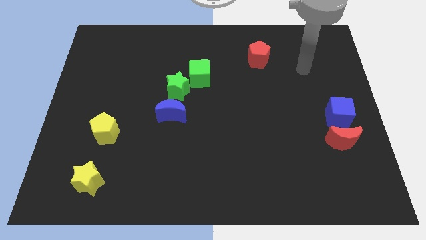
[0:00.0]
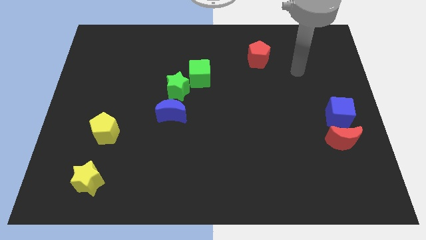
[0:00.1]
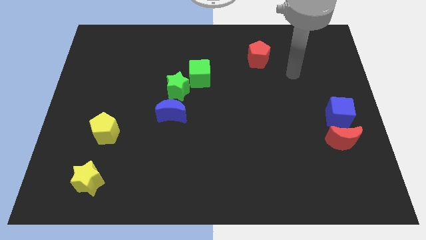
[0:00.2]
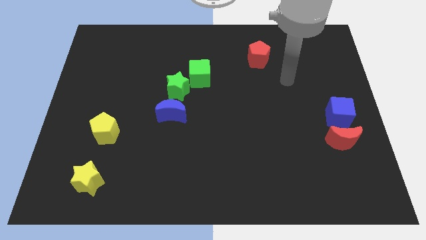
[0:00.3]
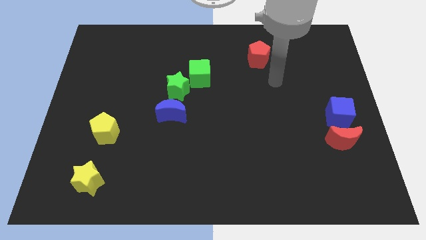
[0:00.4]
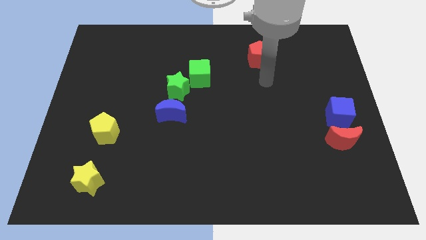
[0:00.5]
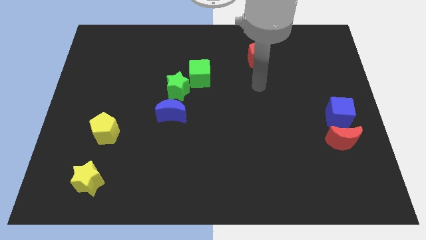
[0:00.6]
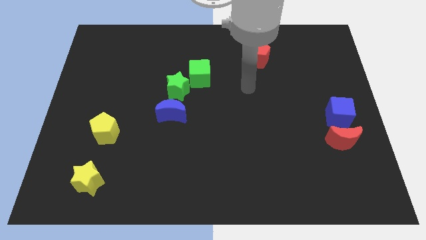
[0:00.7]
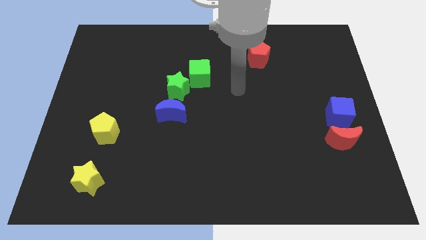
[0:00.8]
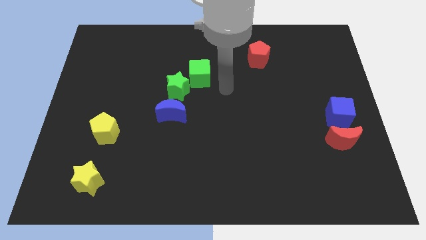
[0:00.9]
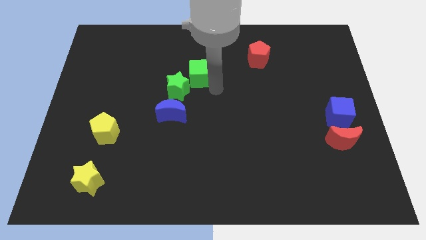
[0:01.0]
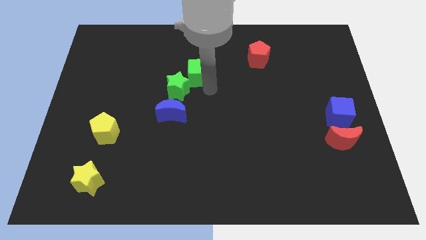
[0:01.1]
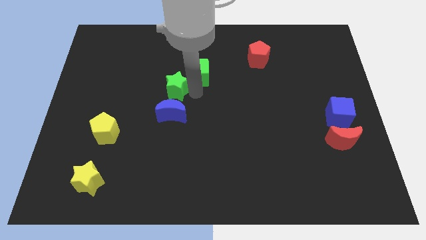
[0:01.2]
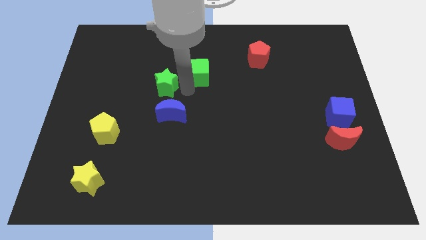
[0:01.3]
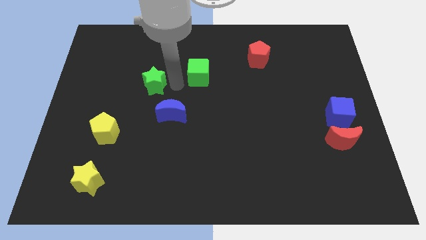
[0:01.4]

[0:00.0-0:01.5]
pull the green cube apart from the green star

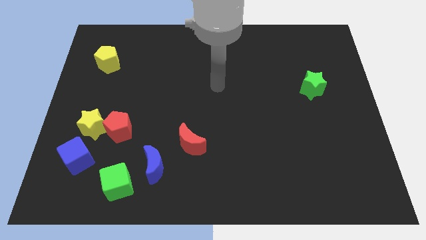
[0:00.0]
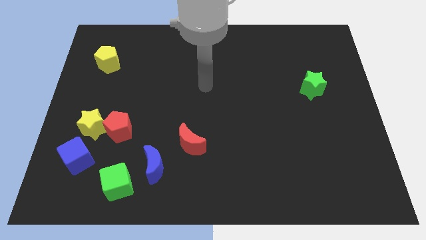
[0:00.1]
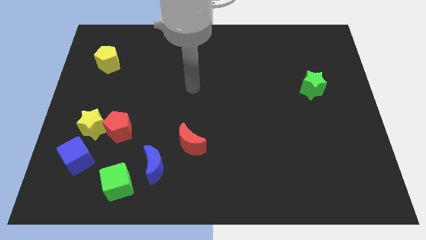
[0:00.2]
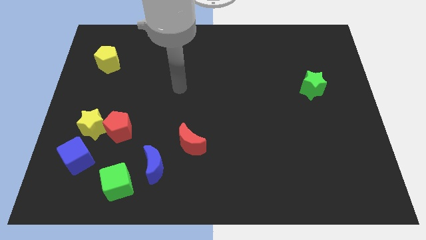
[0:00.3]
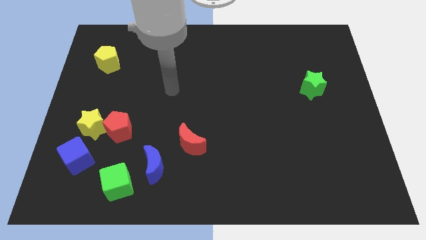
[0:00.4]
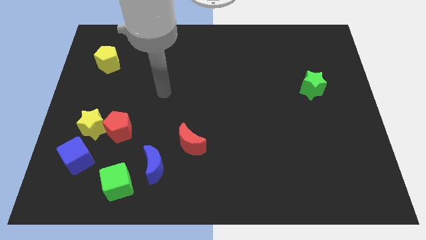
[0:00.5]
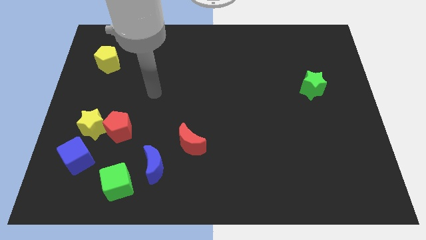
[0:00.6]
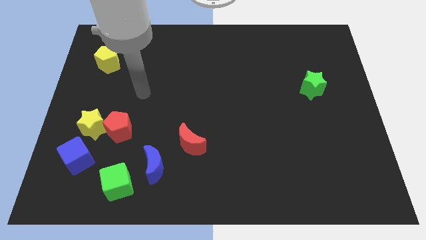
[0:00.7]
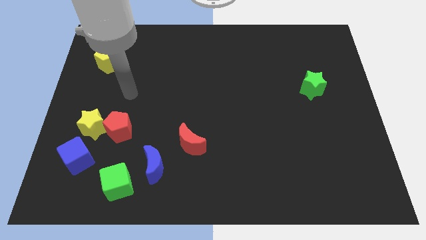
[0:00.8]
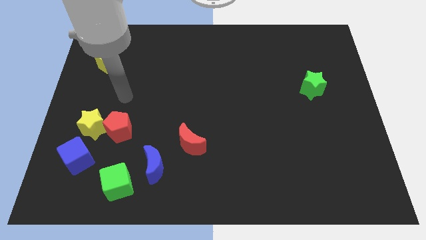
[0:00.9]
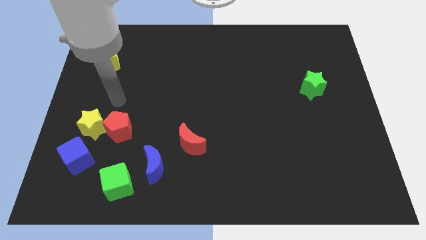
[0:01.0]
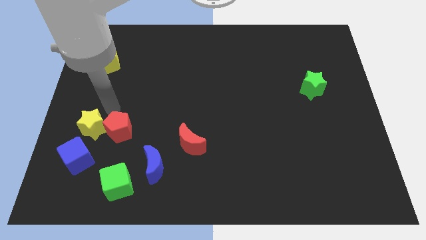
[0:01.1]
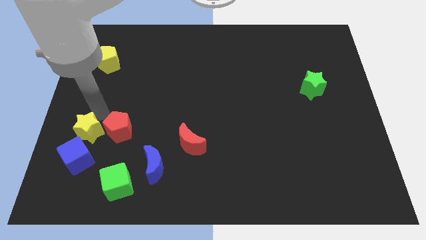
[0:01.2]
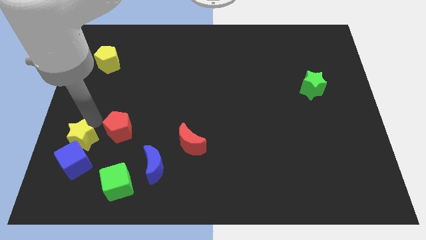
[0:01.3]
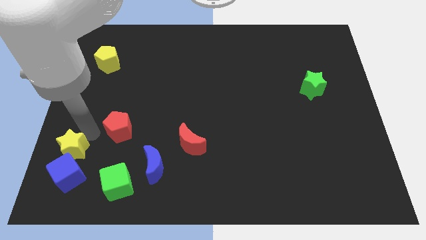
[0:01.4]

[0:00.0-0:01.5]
move the red pentagon away from the yellow star

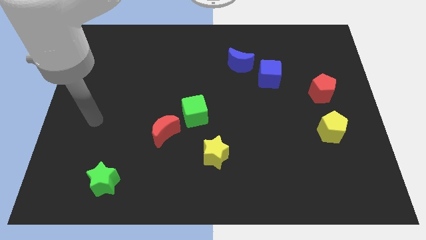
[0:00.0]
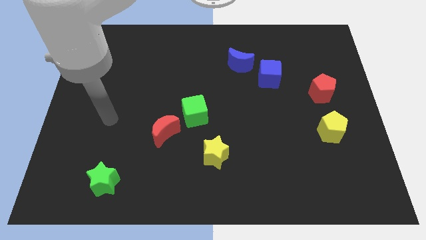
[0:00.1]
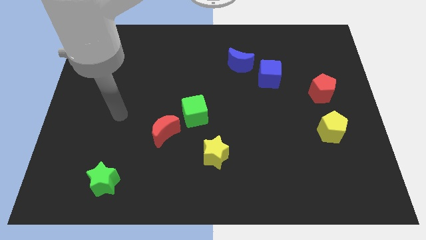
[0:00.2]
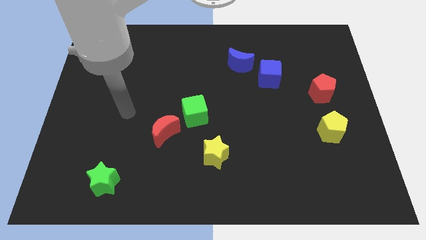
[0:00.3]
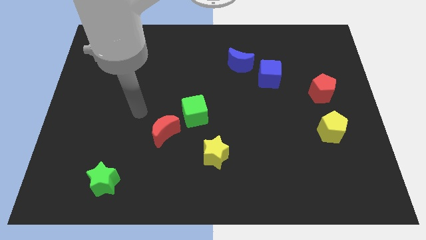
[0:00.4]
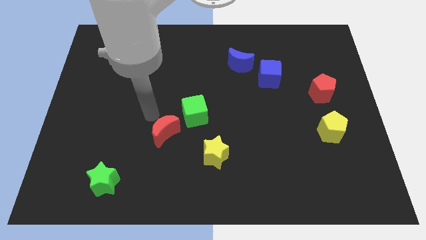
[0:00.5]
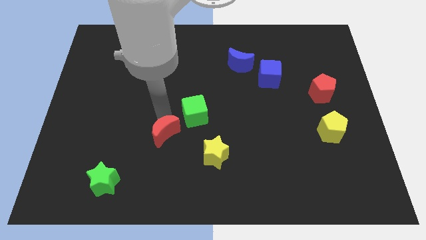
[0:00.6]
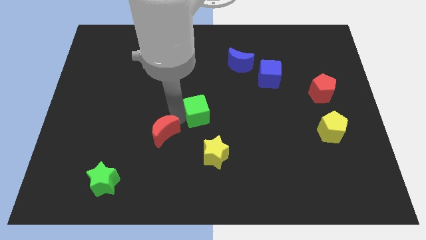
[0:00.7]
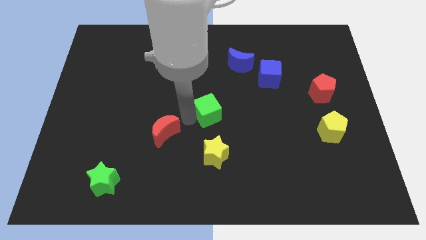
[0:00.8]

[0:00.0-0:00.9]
pull the red moon apart from the green cube

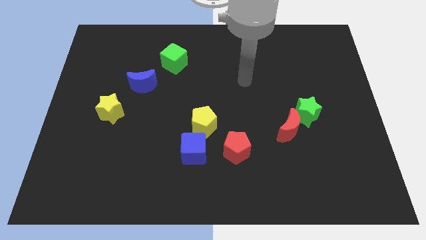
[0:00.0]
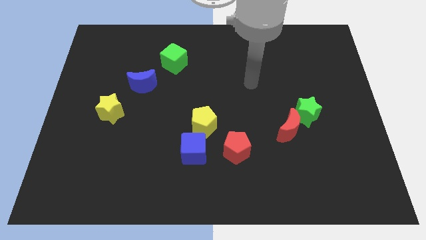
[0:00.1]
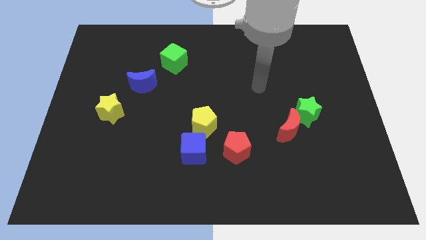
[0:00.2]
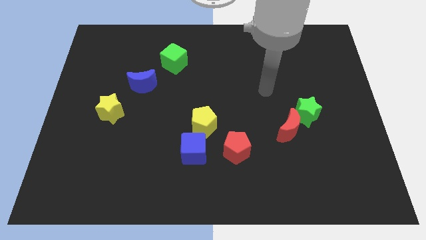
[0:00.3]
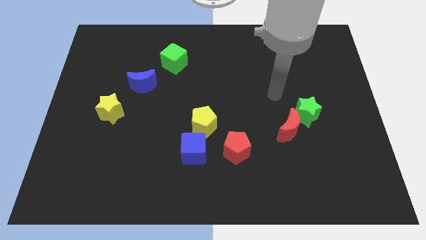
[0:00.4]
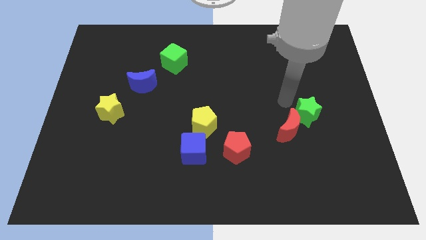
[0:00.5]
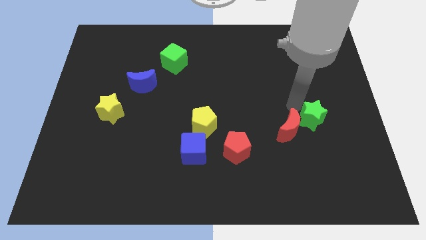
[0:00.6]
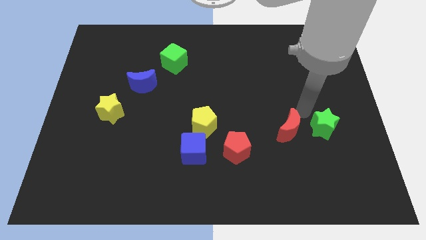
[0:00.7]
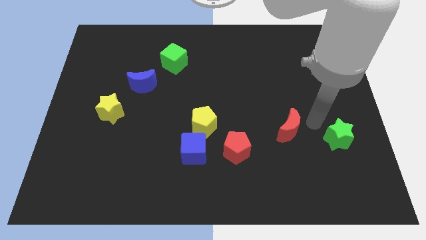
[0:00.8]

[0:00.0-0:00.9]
pull the red moon apart from the green star

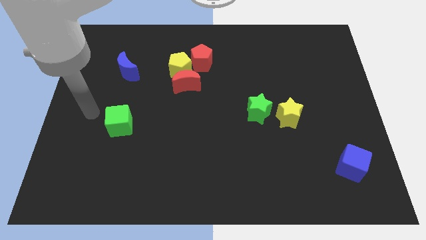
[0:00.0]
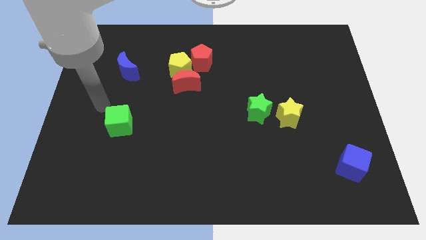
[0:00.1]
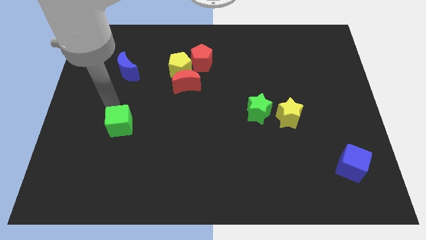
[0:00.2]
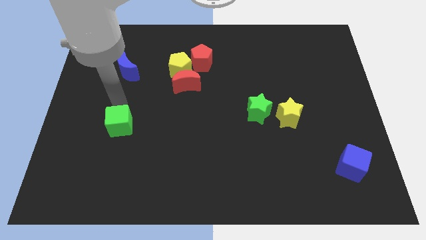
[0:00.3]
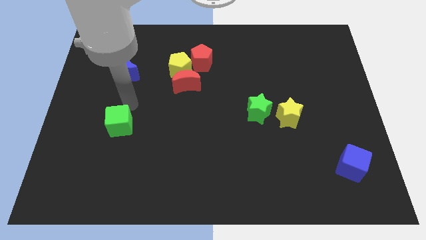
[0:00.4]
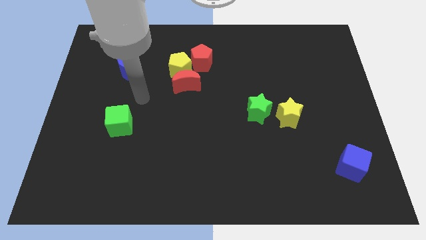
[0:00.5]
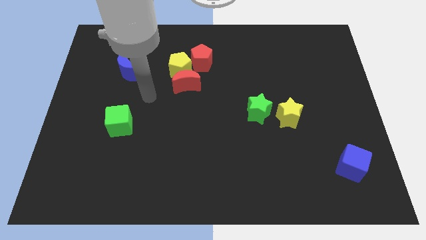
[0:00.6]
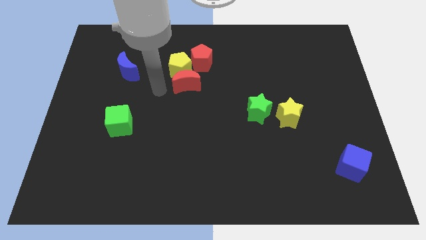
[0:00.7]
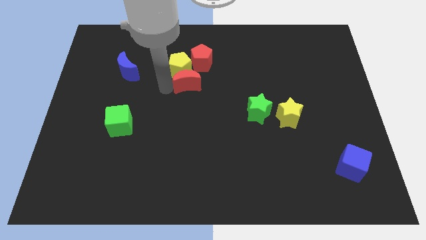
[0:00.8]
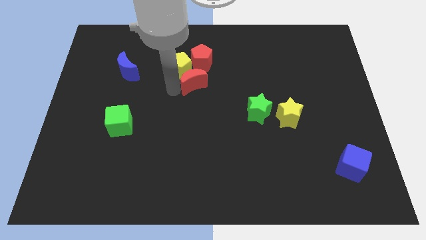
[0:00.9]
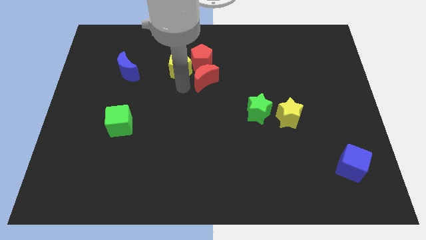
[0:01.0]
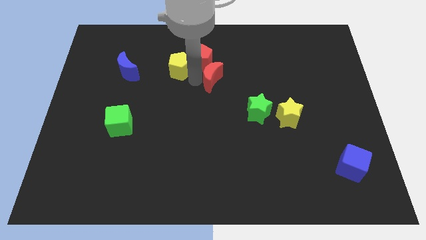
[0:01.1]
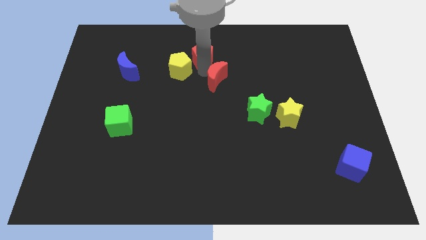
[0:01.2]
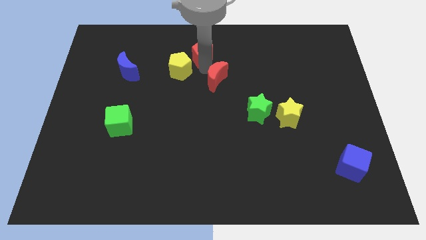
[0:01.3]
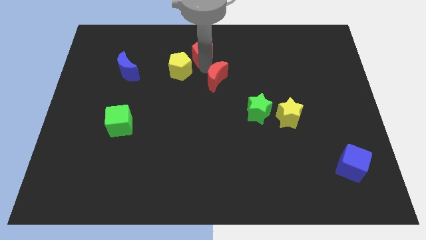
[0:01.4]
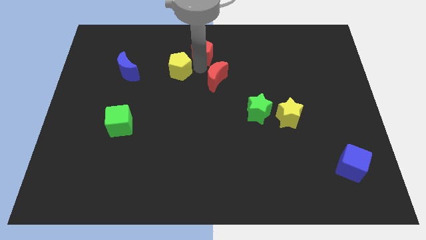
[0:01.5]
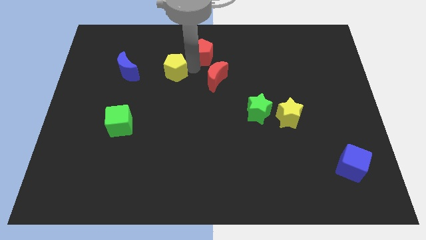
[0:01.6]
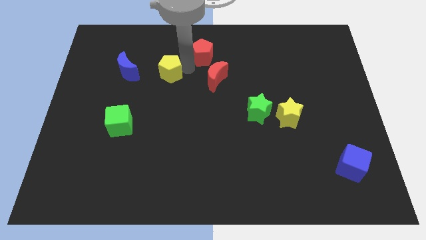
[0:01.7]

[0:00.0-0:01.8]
move the yellow pentagon away from the red moon and red pentagon

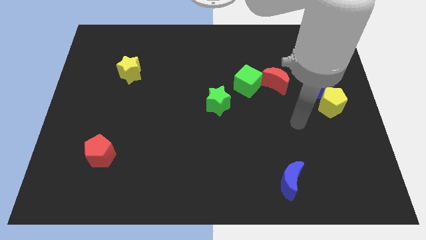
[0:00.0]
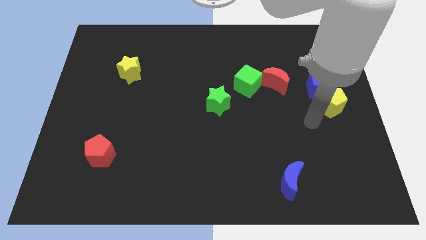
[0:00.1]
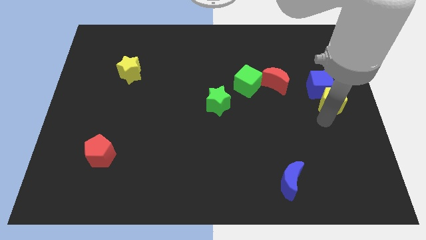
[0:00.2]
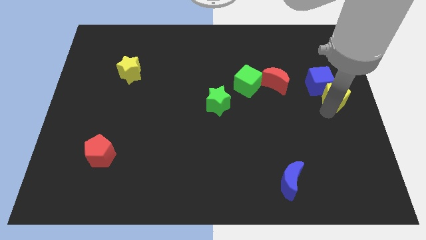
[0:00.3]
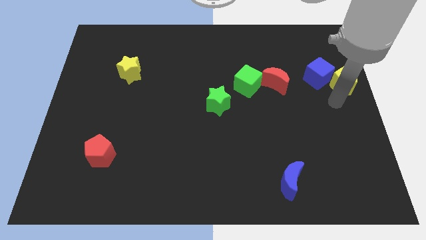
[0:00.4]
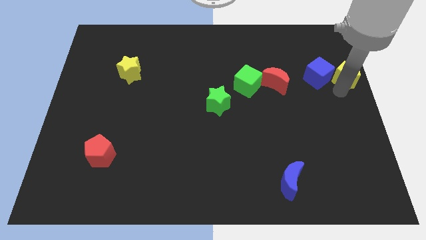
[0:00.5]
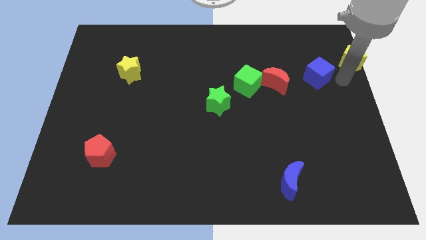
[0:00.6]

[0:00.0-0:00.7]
separate the blue cube from the yellow pentagon

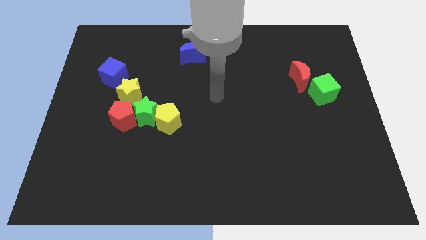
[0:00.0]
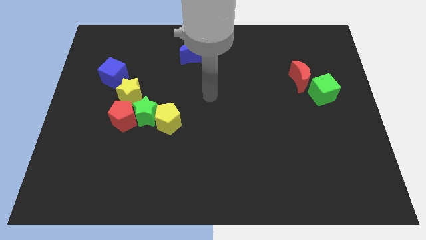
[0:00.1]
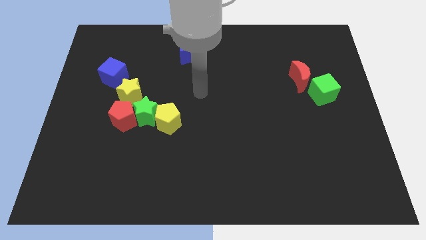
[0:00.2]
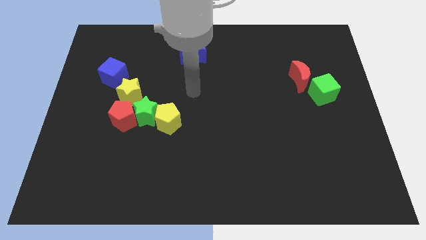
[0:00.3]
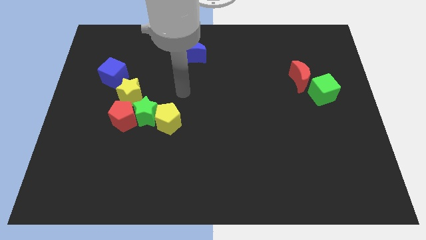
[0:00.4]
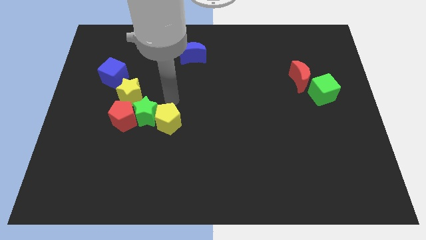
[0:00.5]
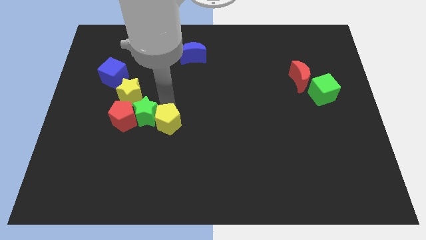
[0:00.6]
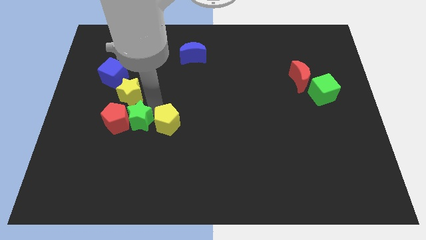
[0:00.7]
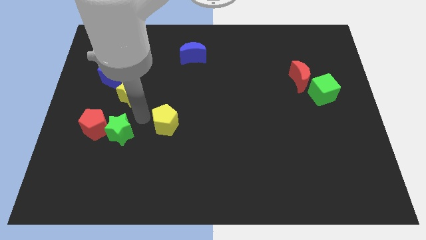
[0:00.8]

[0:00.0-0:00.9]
pull the yellow pentagon apart from the green star

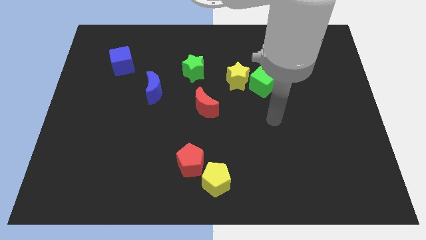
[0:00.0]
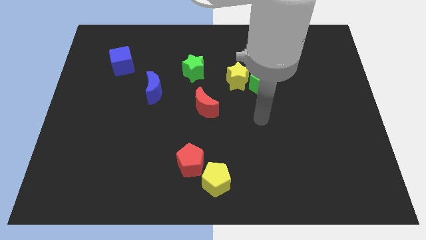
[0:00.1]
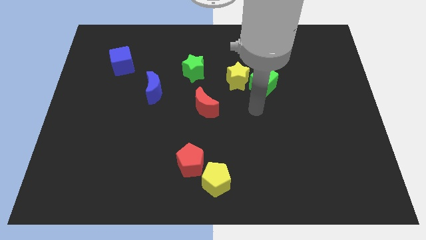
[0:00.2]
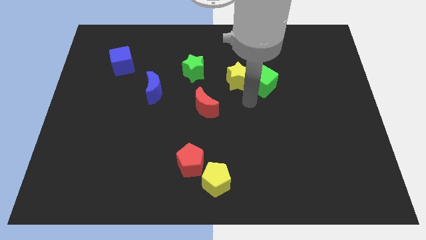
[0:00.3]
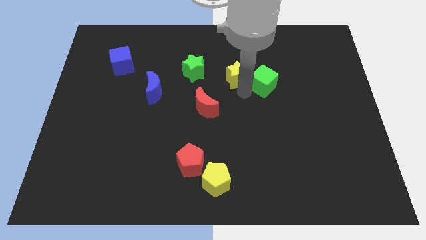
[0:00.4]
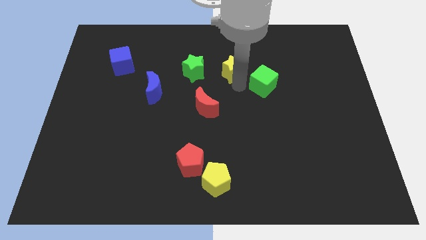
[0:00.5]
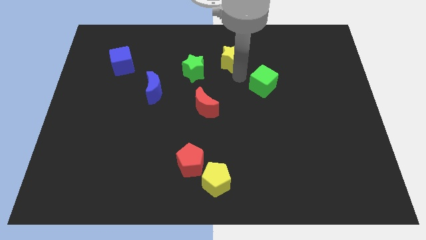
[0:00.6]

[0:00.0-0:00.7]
pull the green cube apart from the yellow star

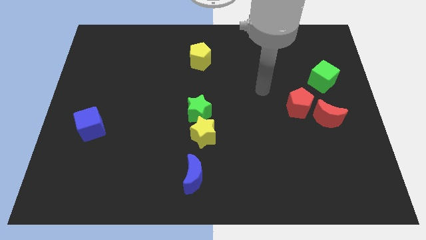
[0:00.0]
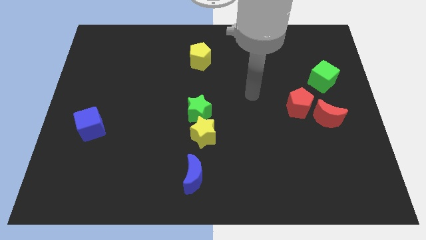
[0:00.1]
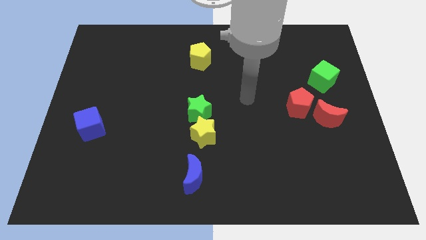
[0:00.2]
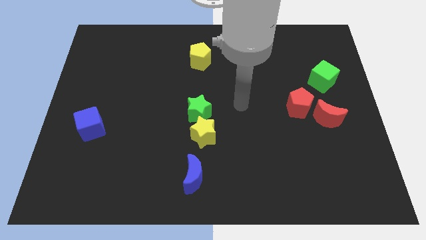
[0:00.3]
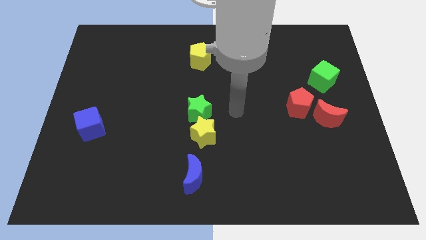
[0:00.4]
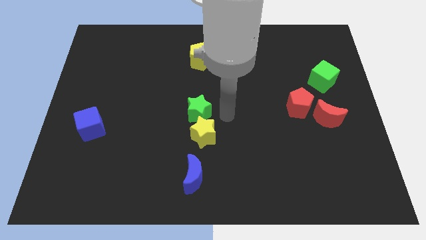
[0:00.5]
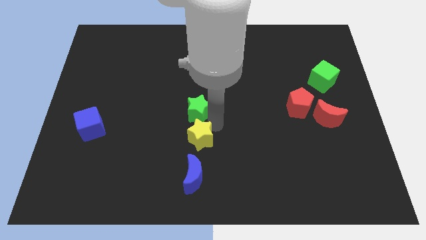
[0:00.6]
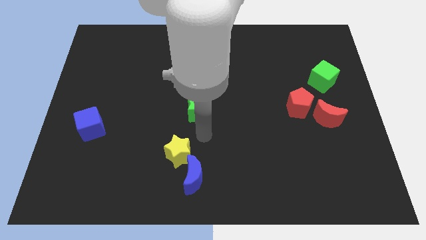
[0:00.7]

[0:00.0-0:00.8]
pull the green star apart from the yellow star
